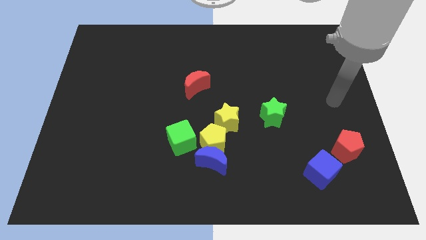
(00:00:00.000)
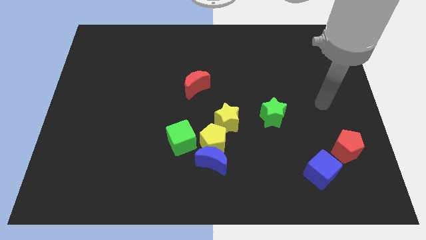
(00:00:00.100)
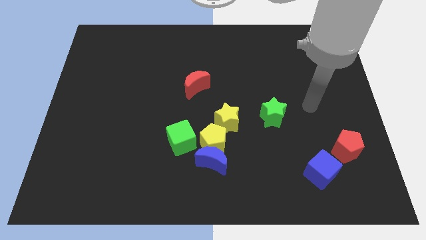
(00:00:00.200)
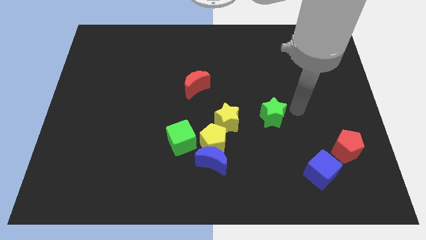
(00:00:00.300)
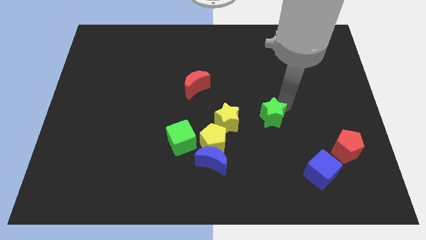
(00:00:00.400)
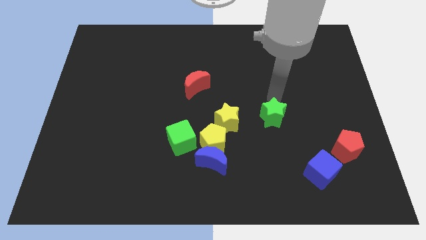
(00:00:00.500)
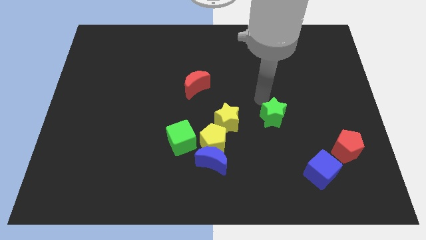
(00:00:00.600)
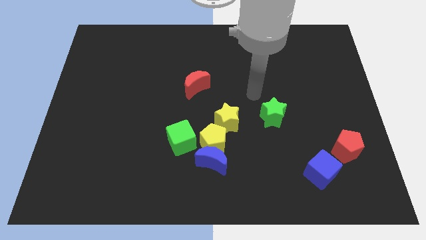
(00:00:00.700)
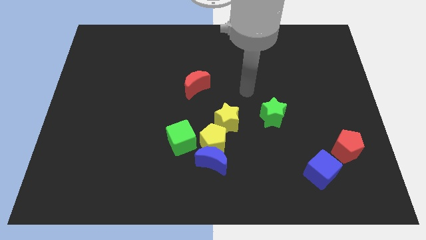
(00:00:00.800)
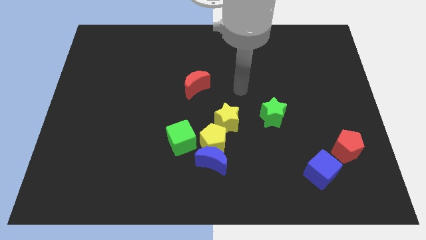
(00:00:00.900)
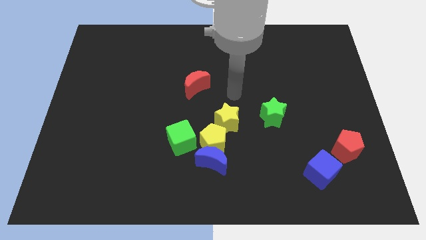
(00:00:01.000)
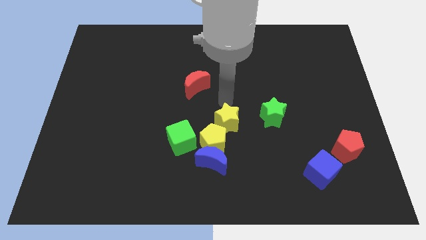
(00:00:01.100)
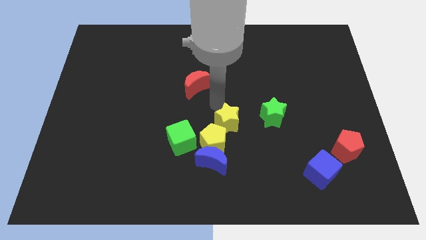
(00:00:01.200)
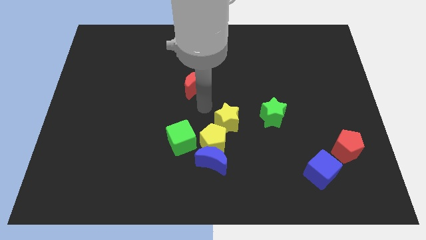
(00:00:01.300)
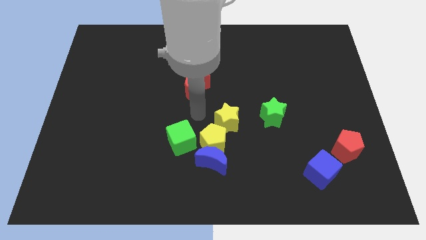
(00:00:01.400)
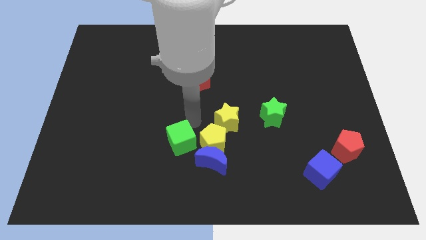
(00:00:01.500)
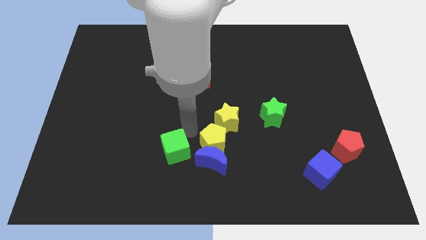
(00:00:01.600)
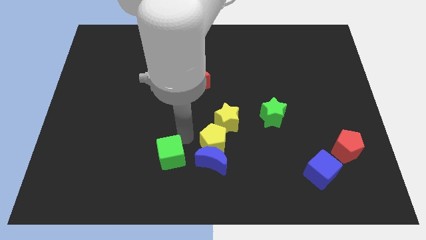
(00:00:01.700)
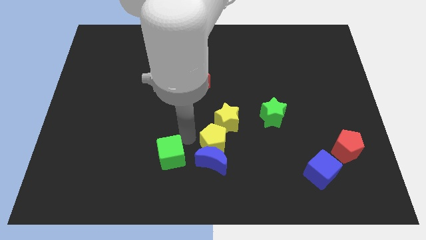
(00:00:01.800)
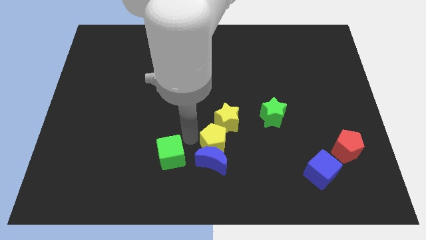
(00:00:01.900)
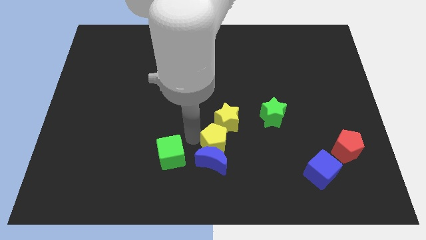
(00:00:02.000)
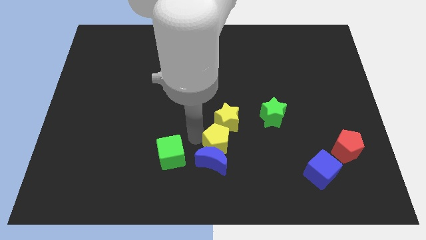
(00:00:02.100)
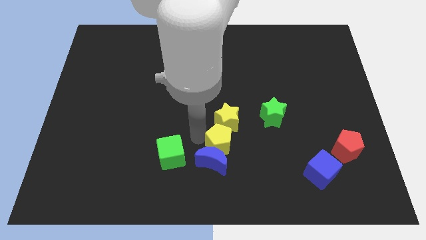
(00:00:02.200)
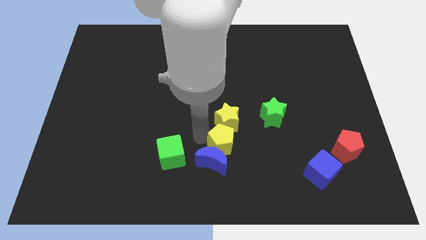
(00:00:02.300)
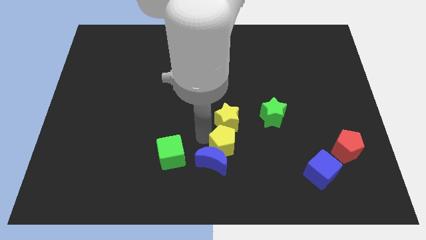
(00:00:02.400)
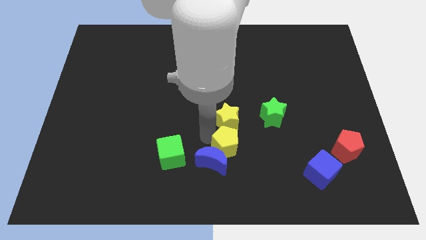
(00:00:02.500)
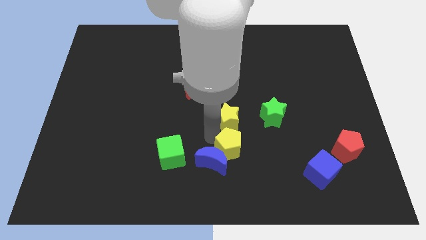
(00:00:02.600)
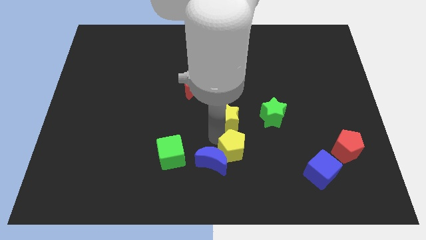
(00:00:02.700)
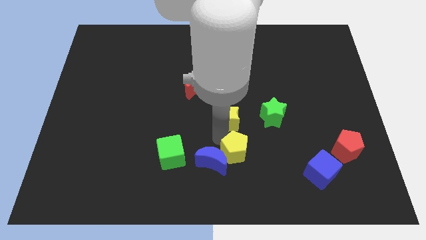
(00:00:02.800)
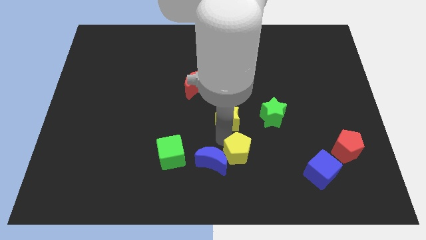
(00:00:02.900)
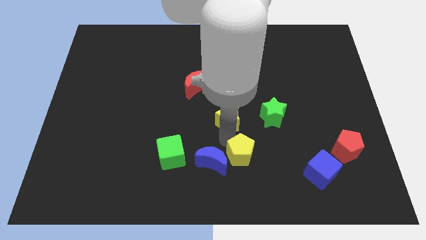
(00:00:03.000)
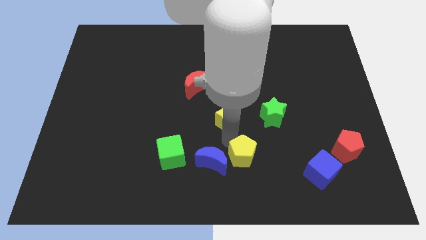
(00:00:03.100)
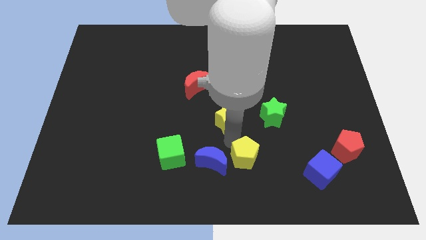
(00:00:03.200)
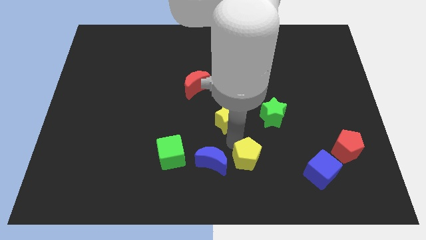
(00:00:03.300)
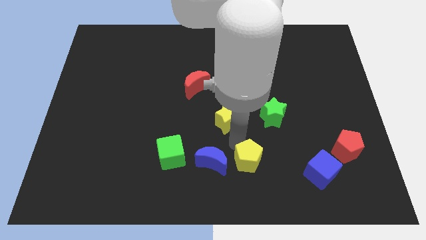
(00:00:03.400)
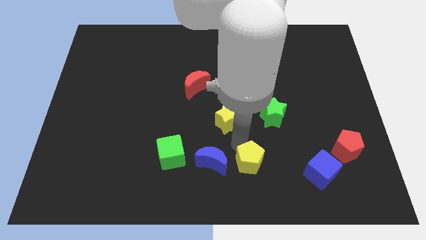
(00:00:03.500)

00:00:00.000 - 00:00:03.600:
pull the yellow pentagon apart from the group of blocks

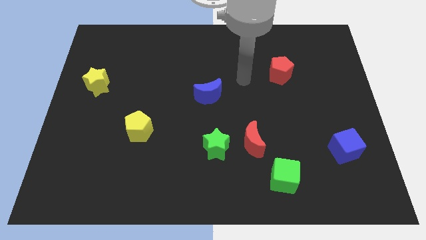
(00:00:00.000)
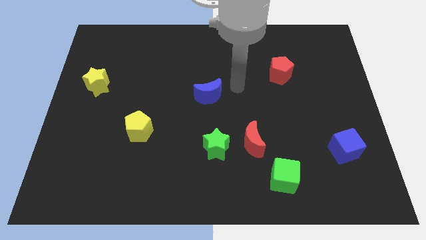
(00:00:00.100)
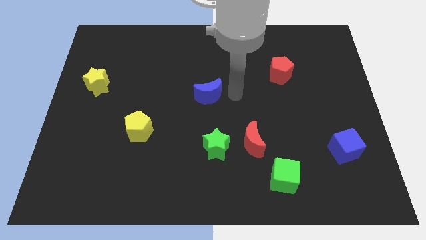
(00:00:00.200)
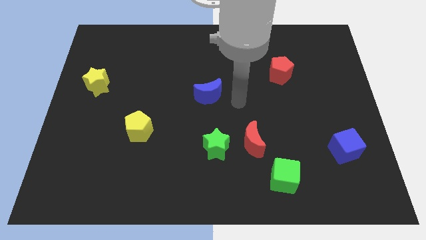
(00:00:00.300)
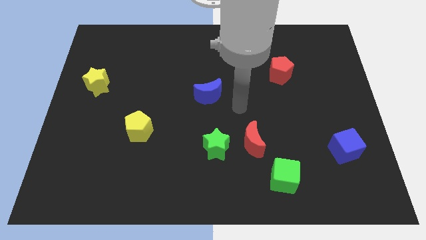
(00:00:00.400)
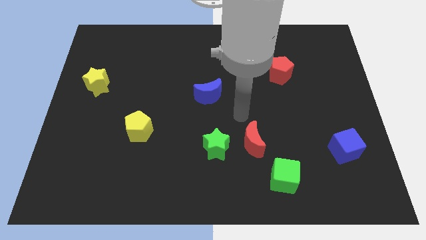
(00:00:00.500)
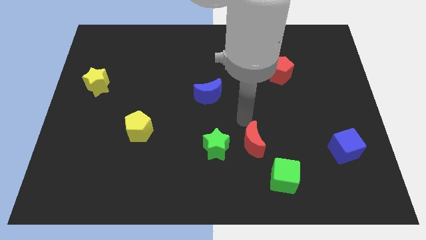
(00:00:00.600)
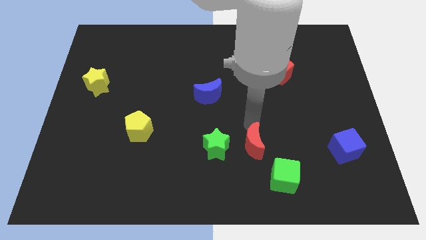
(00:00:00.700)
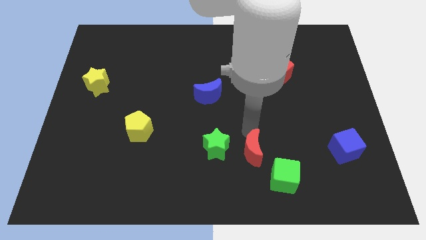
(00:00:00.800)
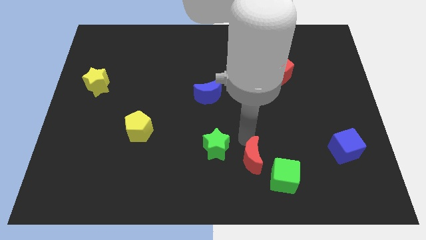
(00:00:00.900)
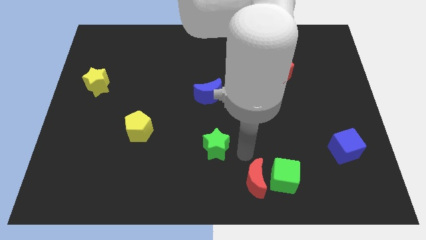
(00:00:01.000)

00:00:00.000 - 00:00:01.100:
separate the green star from the red moon

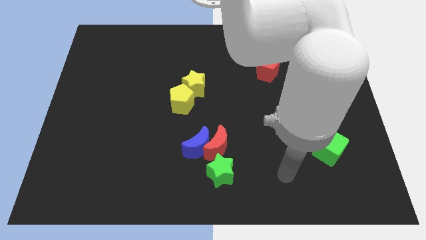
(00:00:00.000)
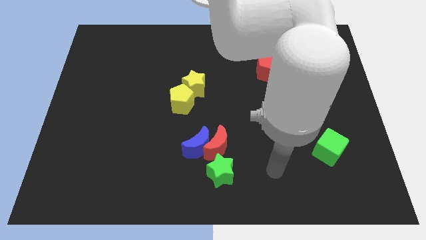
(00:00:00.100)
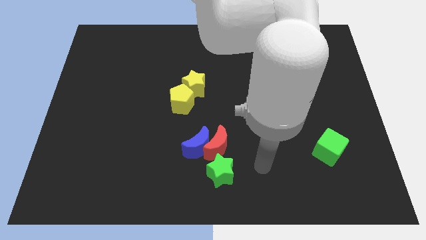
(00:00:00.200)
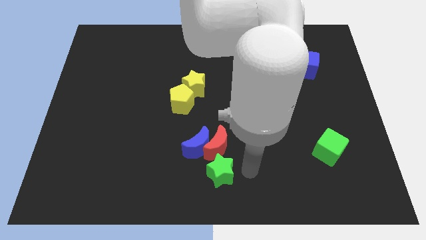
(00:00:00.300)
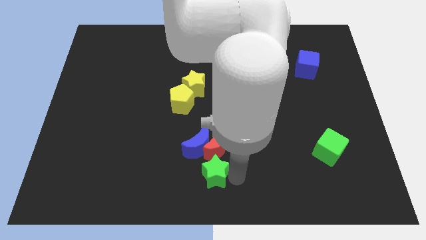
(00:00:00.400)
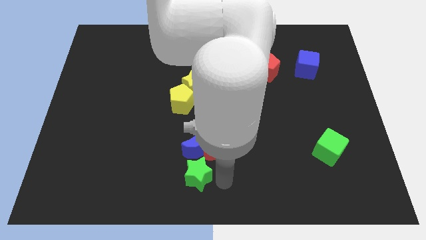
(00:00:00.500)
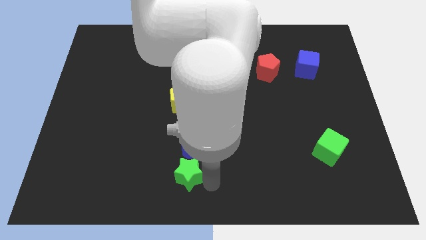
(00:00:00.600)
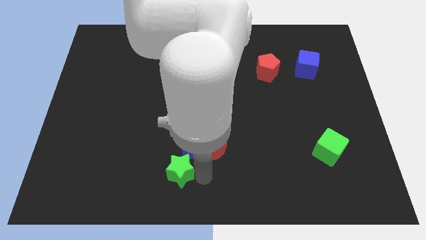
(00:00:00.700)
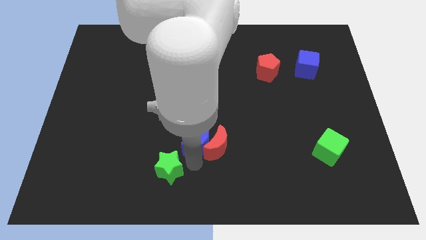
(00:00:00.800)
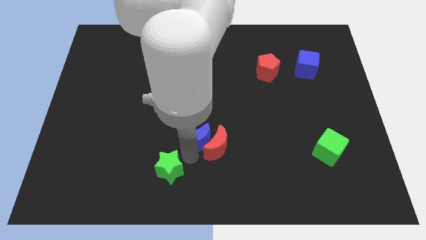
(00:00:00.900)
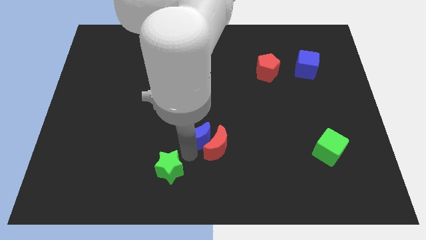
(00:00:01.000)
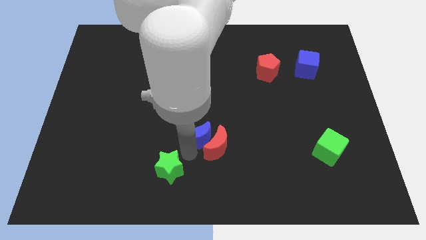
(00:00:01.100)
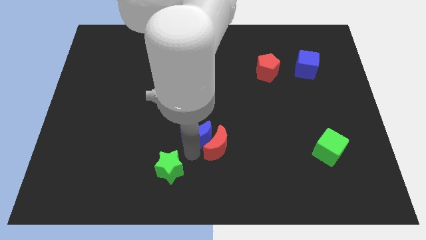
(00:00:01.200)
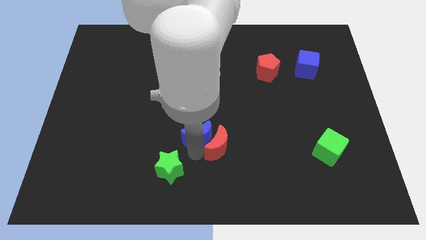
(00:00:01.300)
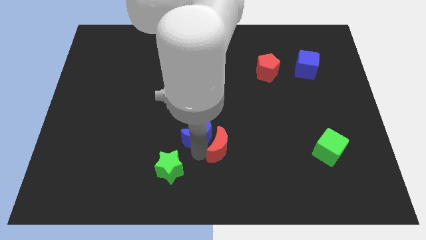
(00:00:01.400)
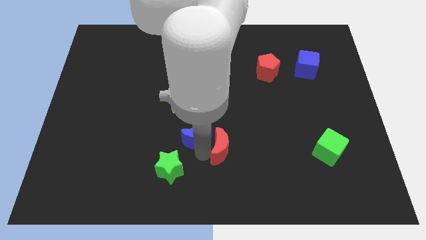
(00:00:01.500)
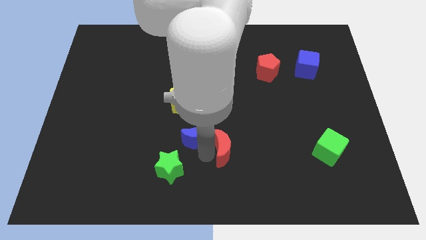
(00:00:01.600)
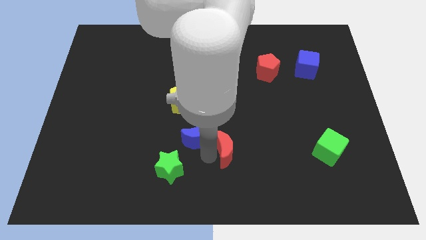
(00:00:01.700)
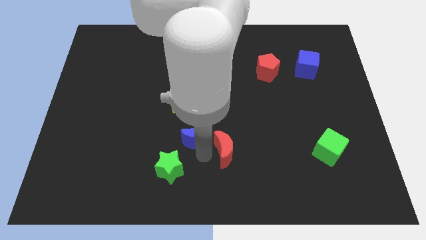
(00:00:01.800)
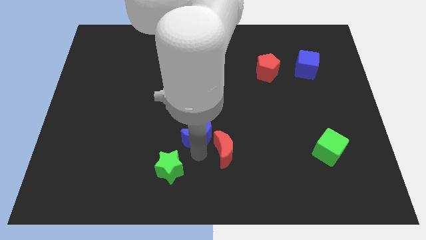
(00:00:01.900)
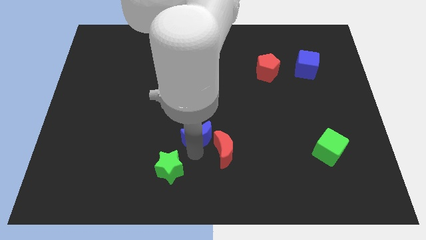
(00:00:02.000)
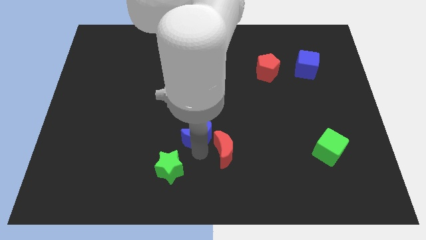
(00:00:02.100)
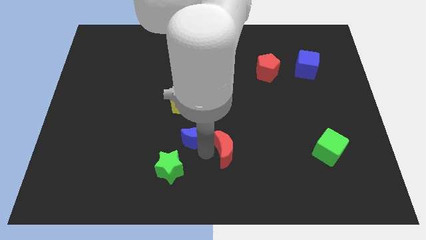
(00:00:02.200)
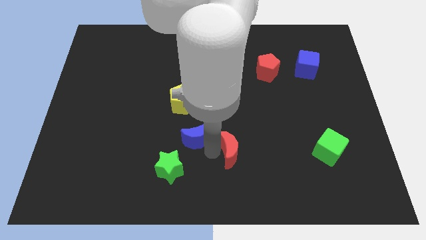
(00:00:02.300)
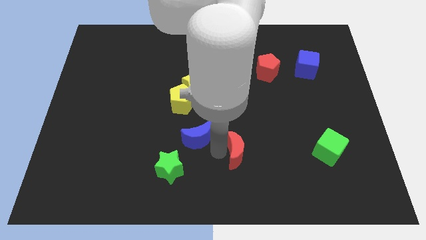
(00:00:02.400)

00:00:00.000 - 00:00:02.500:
separate the red moon from the blue moon and green star

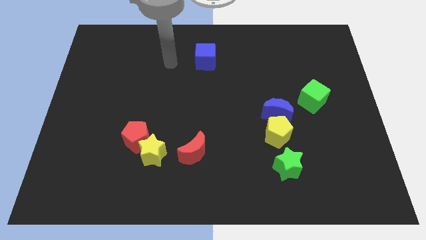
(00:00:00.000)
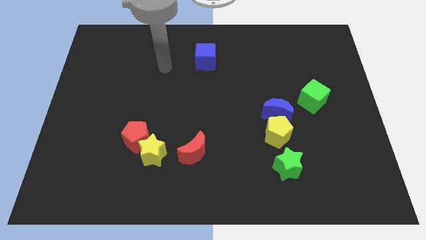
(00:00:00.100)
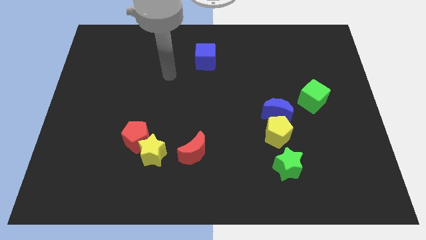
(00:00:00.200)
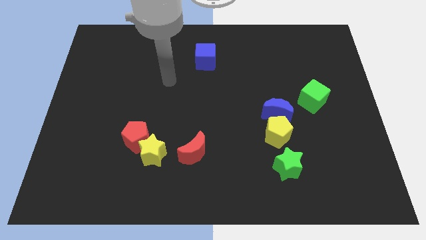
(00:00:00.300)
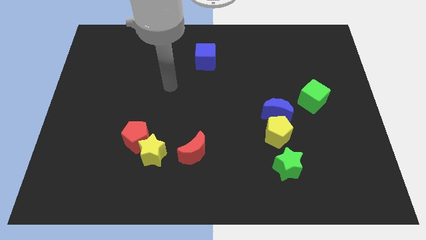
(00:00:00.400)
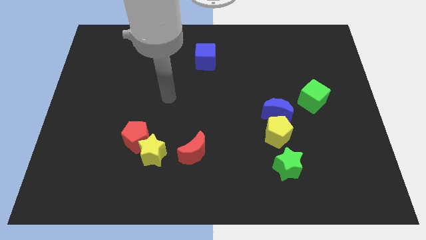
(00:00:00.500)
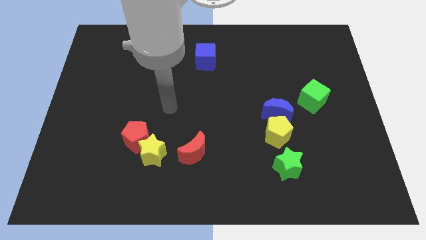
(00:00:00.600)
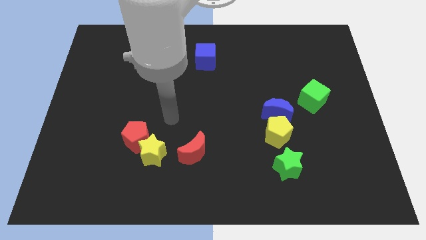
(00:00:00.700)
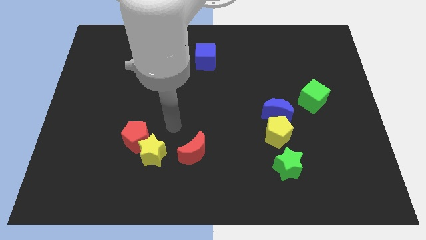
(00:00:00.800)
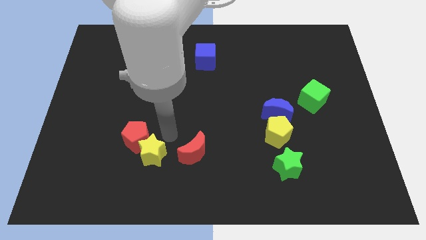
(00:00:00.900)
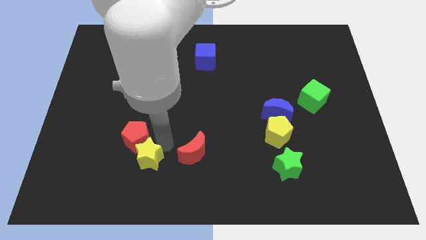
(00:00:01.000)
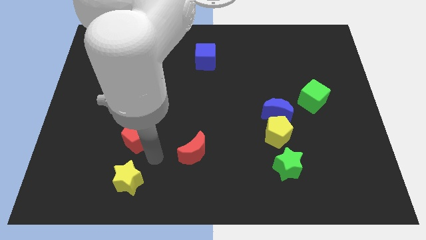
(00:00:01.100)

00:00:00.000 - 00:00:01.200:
separate the red pentagon from the yellow star

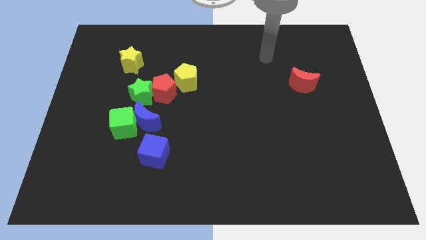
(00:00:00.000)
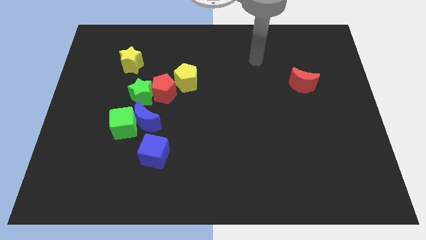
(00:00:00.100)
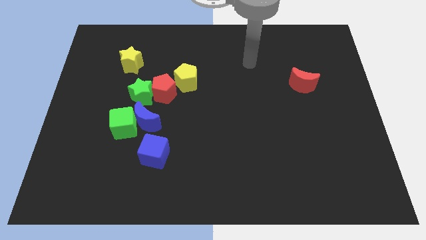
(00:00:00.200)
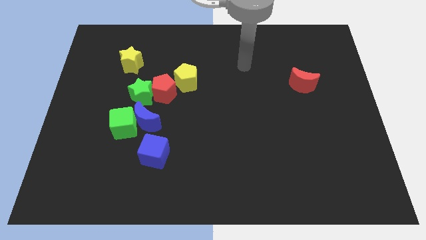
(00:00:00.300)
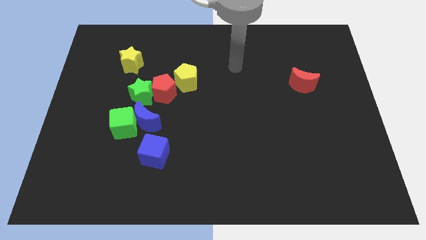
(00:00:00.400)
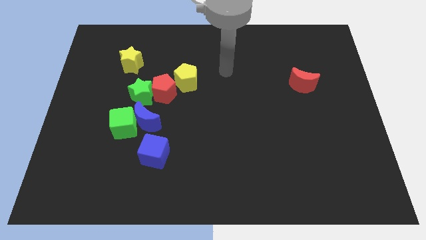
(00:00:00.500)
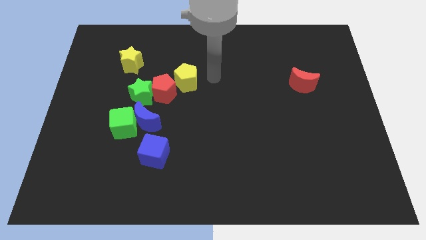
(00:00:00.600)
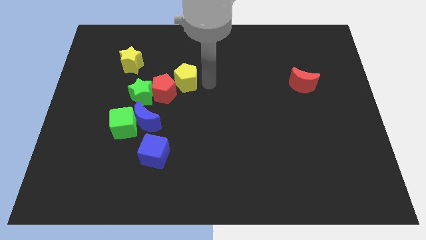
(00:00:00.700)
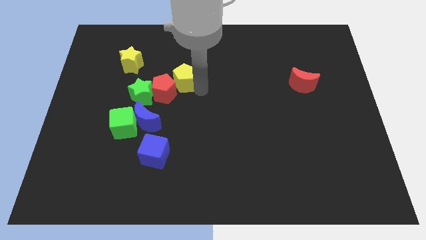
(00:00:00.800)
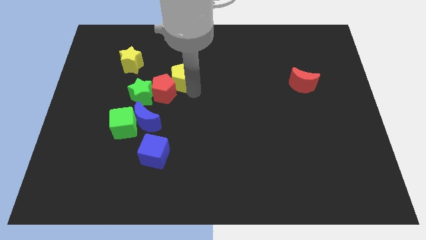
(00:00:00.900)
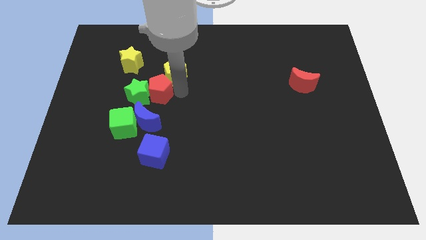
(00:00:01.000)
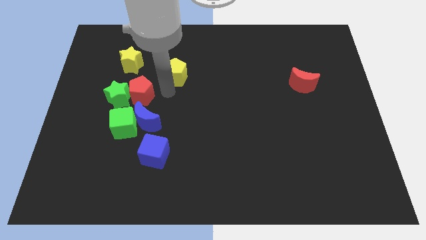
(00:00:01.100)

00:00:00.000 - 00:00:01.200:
pull the yellow pentagon apart from the red pentagon
